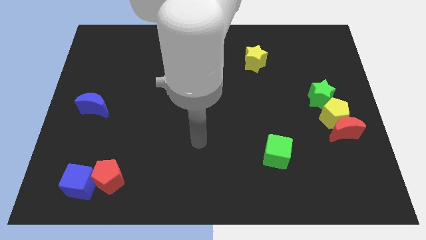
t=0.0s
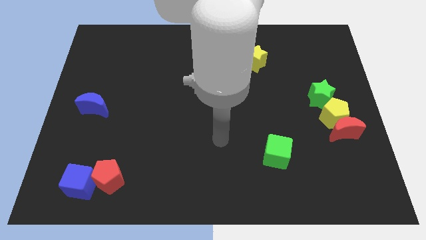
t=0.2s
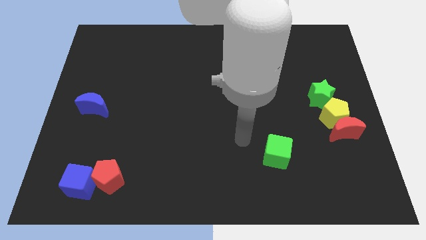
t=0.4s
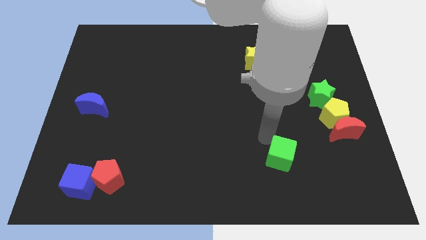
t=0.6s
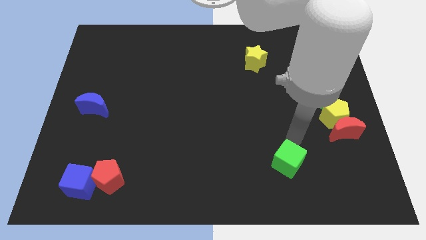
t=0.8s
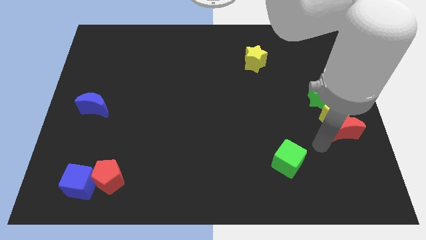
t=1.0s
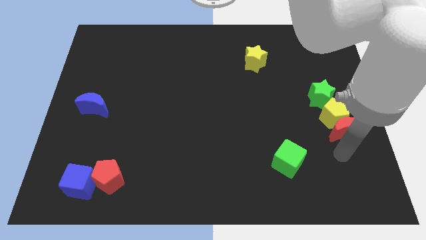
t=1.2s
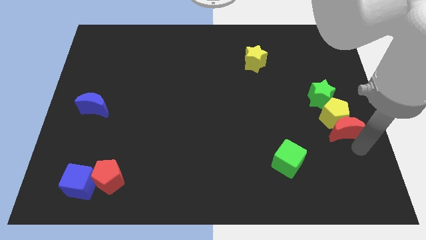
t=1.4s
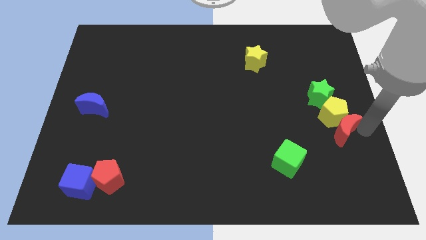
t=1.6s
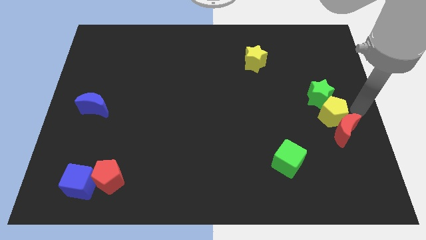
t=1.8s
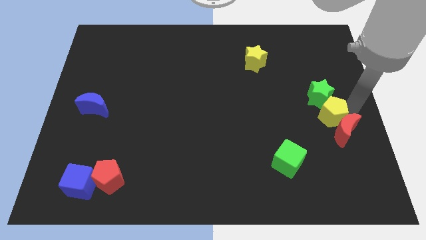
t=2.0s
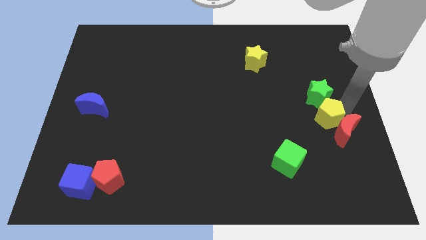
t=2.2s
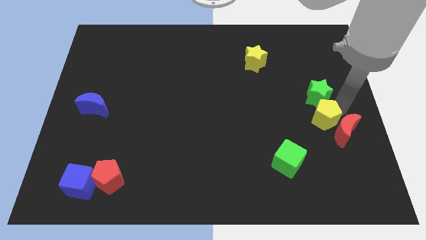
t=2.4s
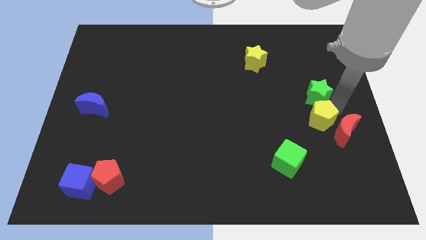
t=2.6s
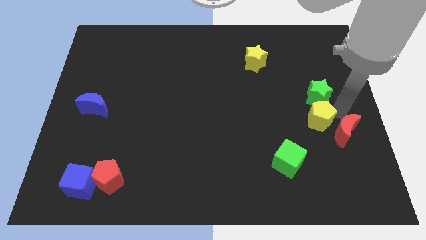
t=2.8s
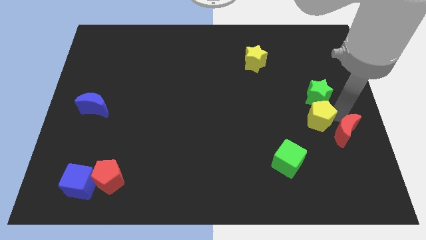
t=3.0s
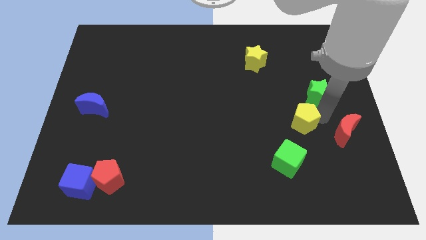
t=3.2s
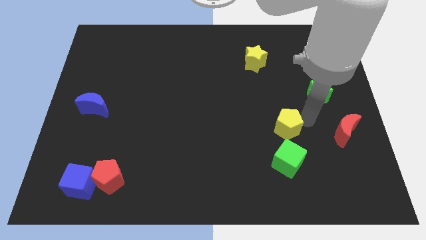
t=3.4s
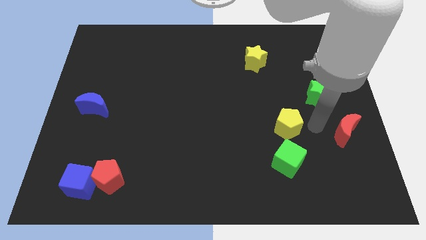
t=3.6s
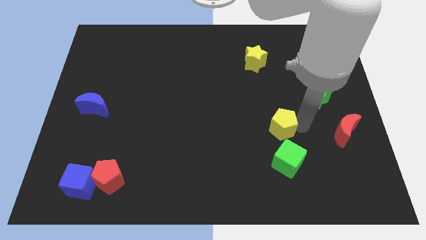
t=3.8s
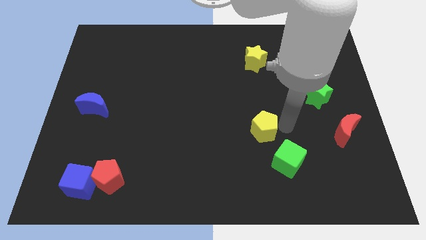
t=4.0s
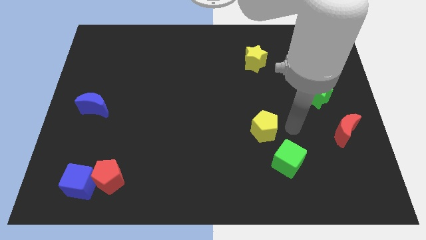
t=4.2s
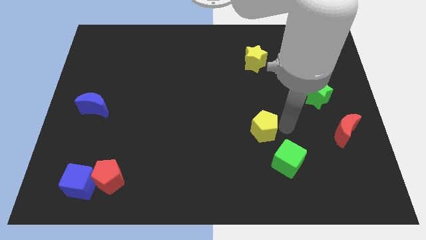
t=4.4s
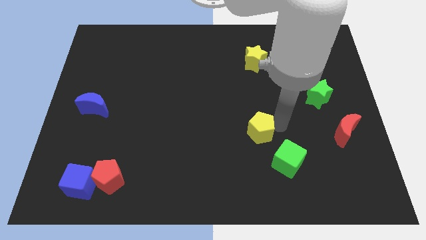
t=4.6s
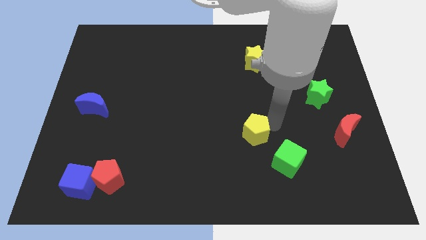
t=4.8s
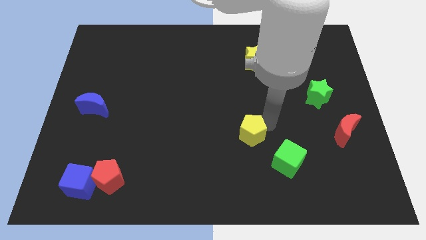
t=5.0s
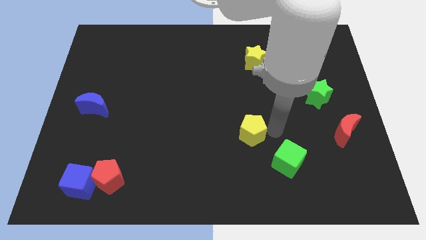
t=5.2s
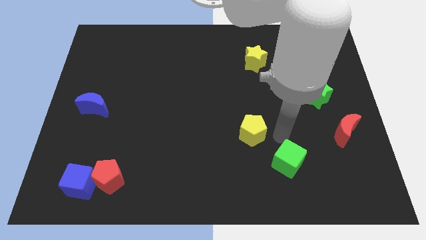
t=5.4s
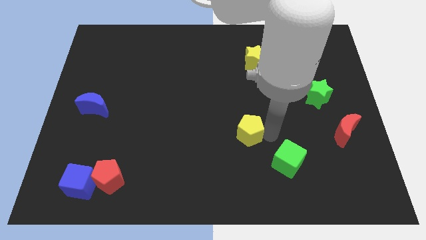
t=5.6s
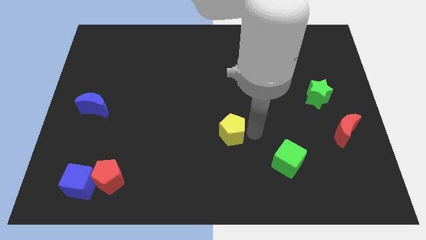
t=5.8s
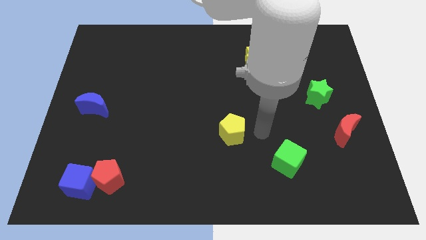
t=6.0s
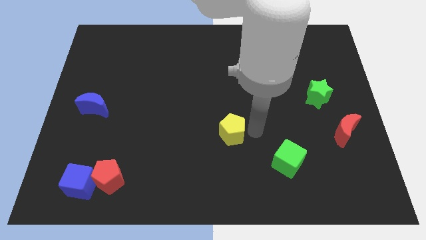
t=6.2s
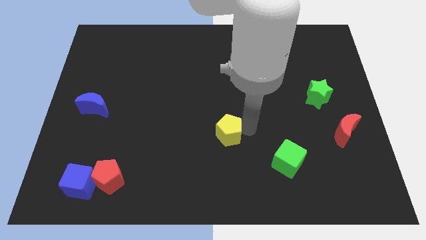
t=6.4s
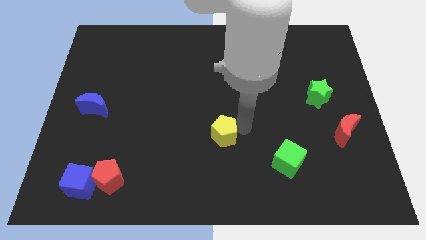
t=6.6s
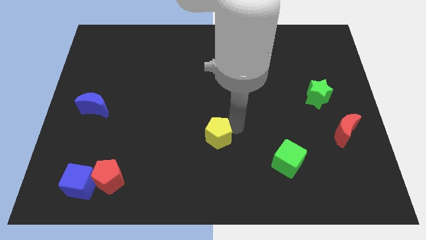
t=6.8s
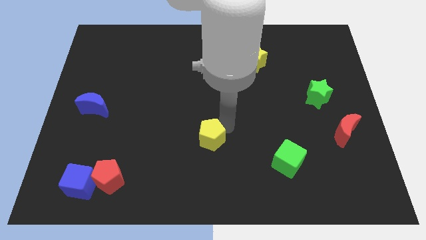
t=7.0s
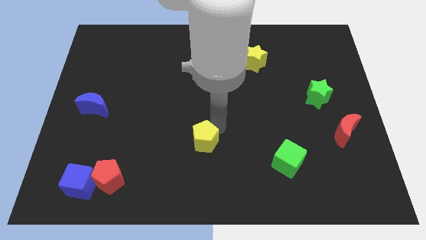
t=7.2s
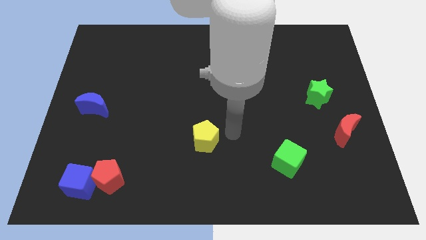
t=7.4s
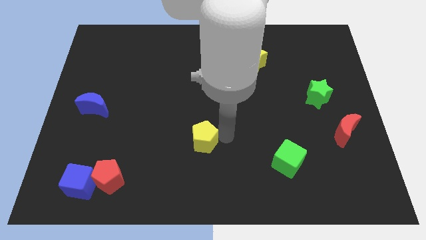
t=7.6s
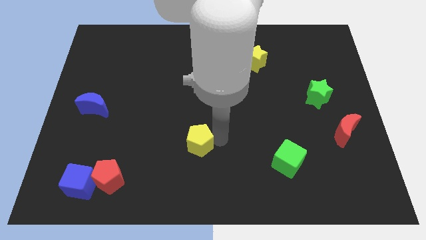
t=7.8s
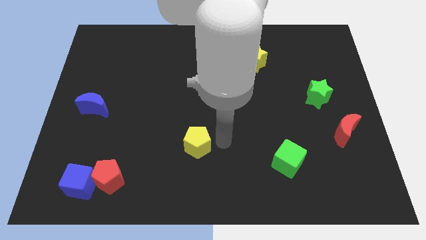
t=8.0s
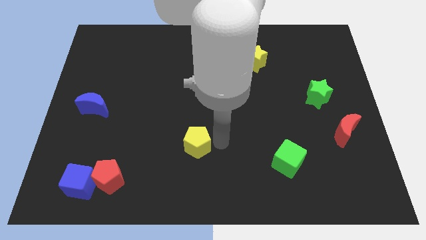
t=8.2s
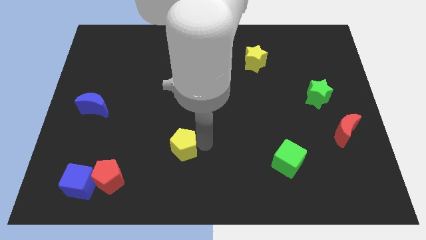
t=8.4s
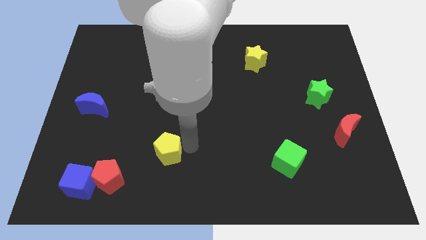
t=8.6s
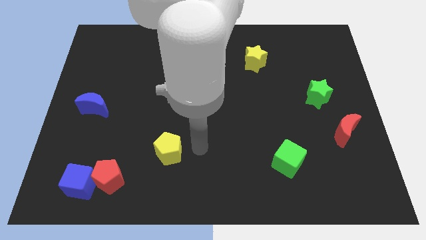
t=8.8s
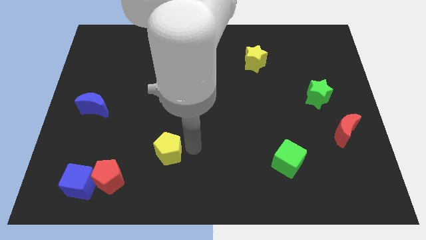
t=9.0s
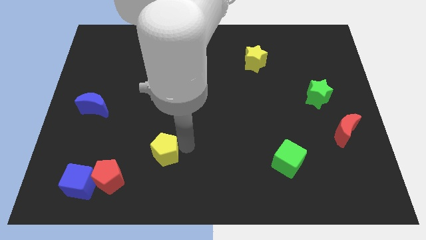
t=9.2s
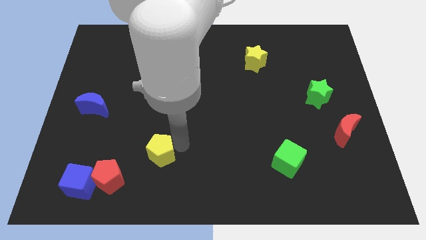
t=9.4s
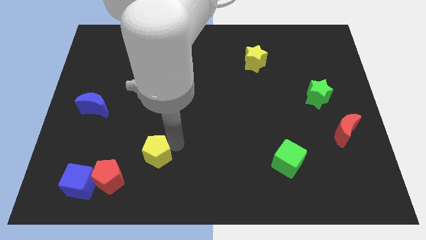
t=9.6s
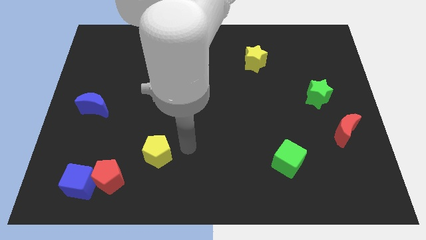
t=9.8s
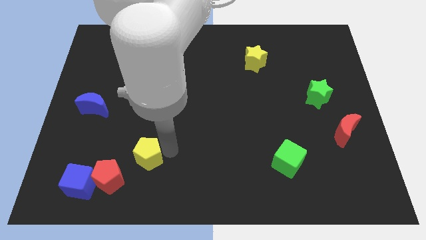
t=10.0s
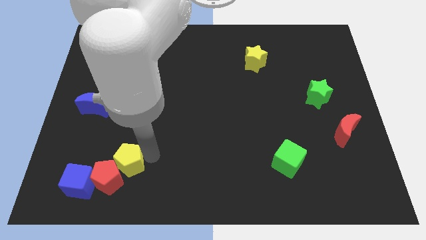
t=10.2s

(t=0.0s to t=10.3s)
slide the yellow pentagon to the top right of the blue cube

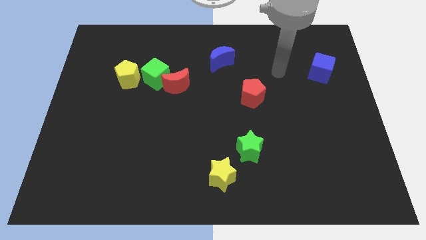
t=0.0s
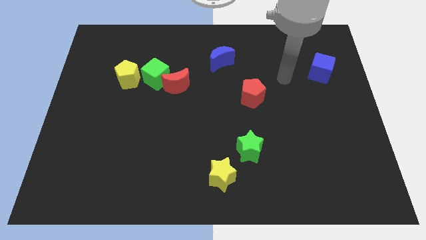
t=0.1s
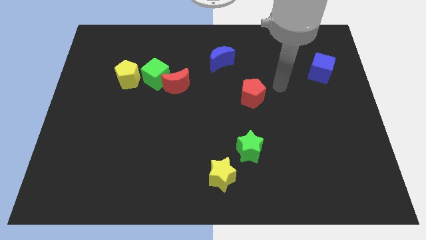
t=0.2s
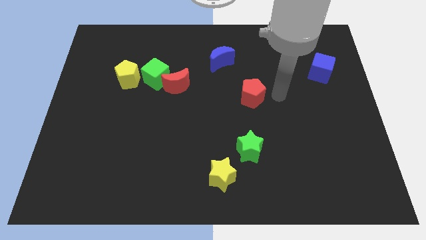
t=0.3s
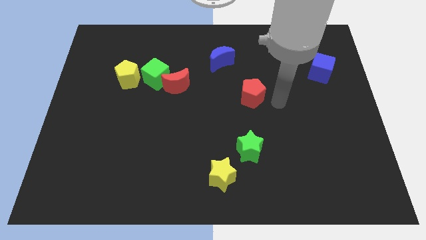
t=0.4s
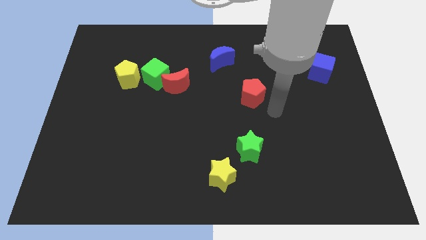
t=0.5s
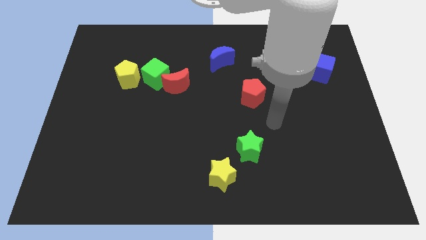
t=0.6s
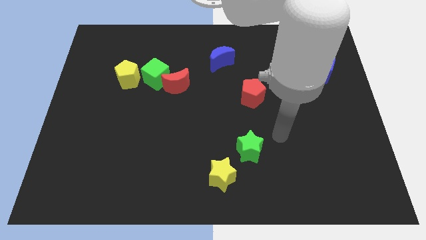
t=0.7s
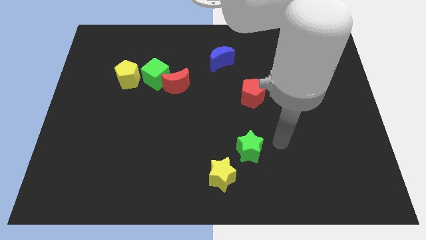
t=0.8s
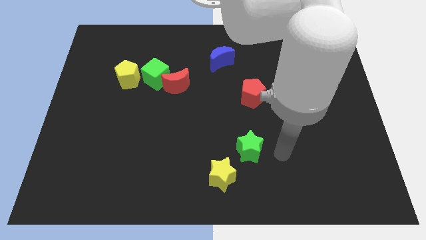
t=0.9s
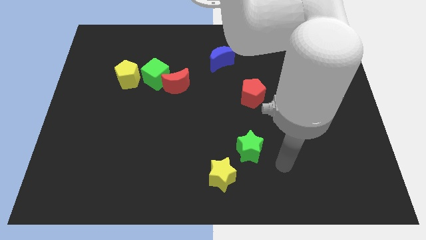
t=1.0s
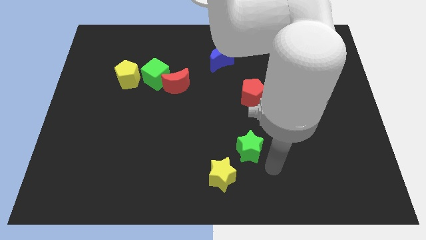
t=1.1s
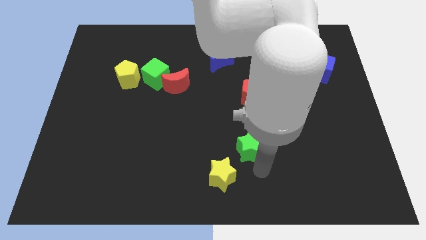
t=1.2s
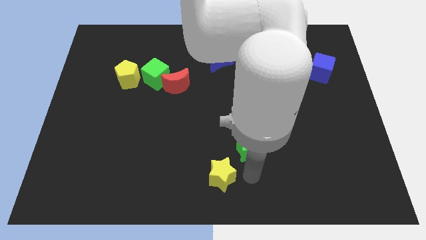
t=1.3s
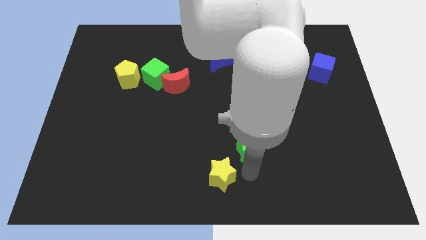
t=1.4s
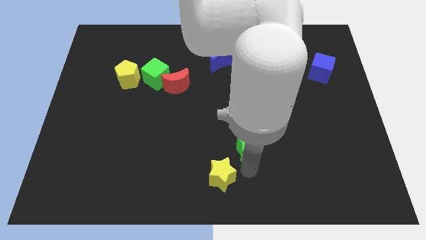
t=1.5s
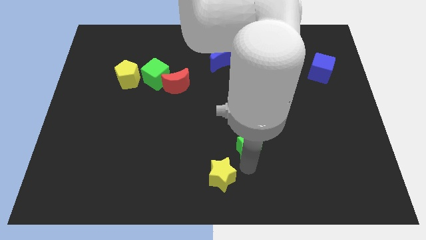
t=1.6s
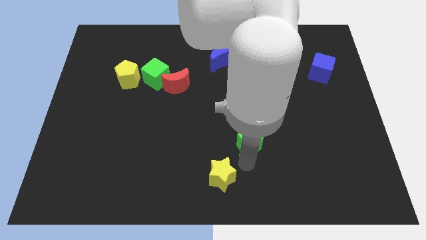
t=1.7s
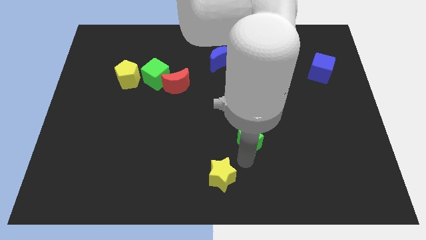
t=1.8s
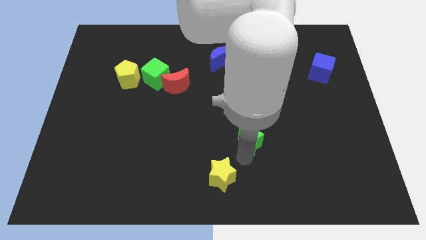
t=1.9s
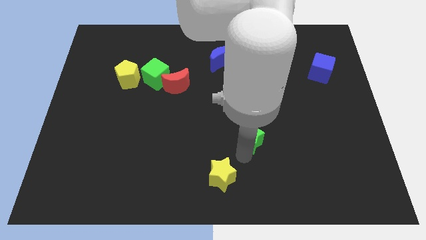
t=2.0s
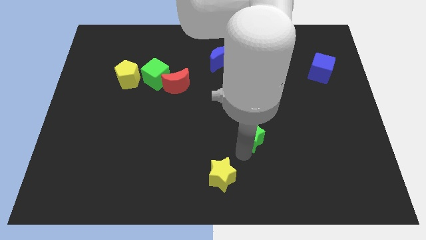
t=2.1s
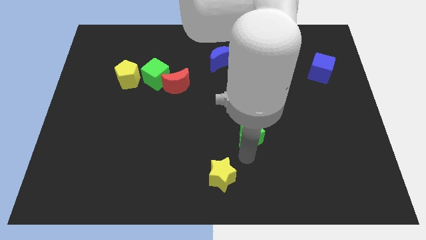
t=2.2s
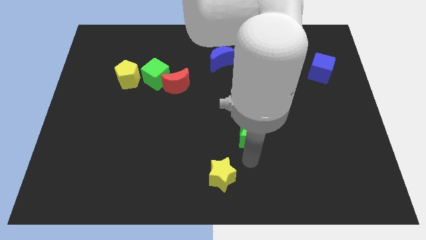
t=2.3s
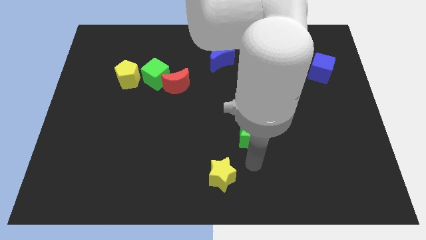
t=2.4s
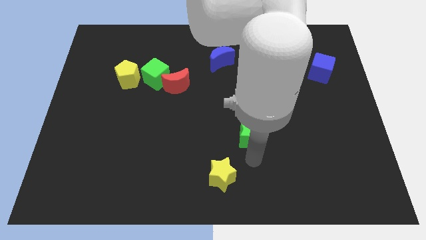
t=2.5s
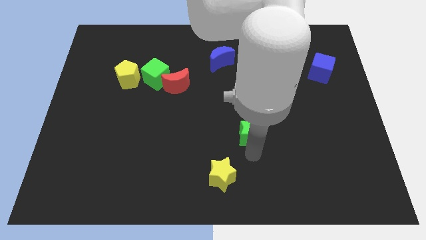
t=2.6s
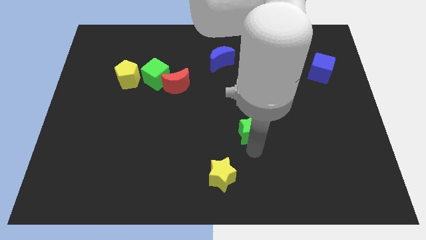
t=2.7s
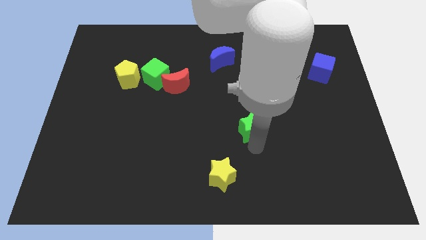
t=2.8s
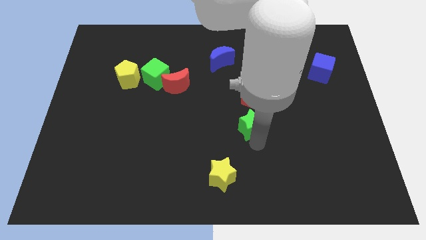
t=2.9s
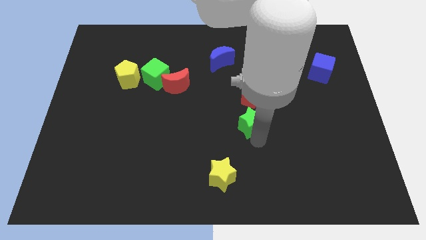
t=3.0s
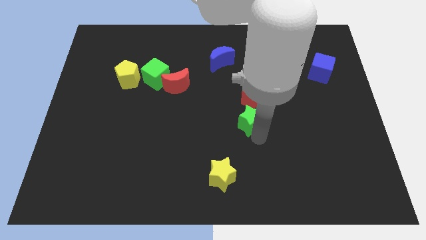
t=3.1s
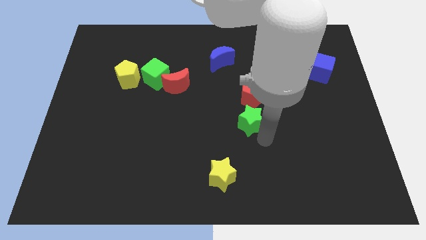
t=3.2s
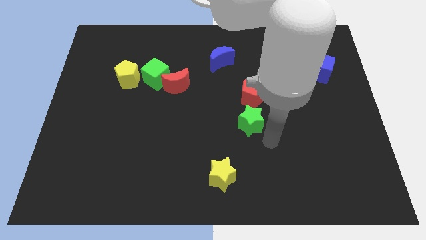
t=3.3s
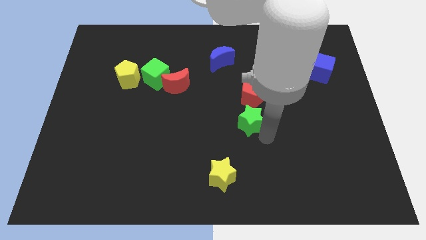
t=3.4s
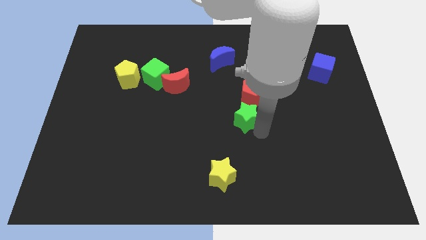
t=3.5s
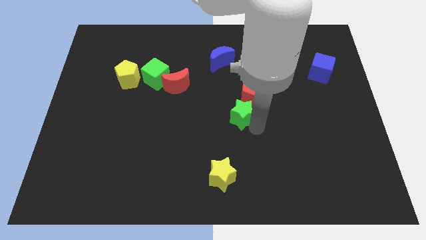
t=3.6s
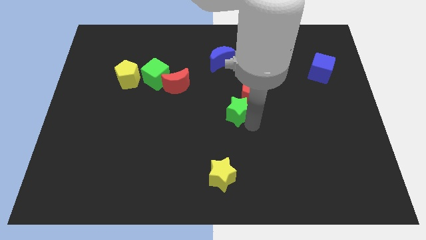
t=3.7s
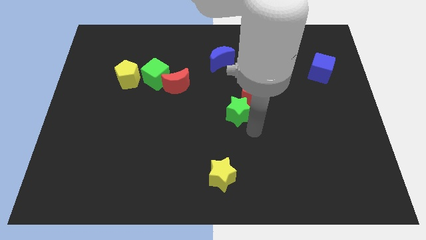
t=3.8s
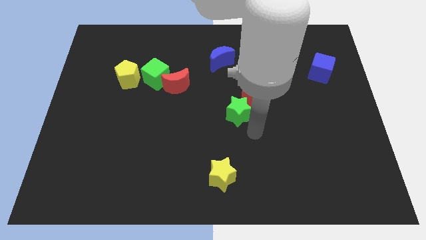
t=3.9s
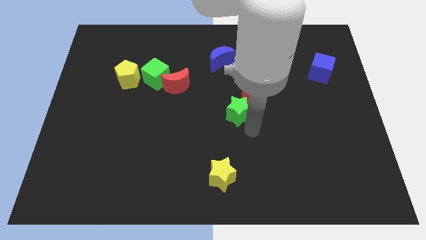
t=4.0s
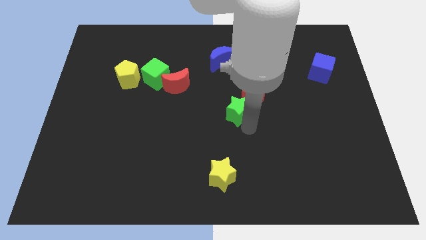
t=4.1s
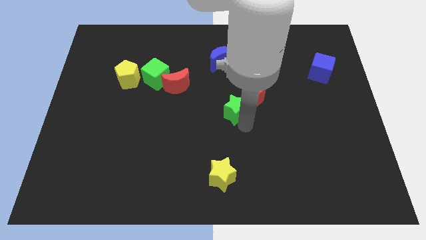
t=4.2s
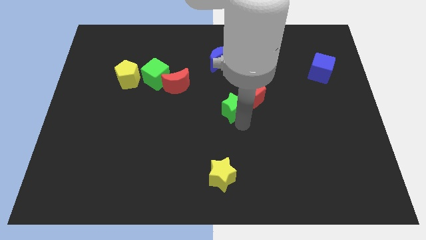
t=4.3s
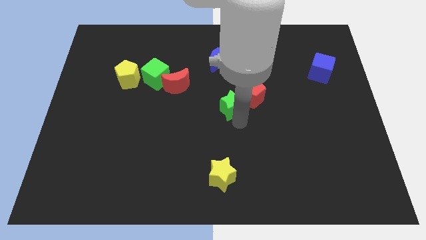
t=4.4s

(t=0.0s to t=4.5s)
put the green star below the blue moon
